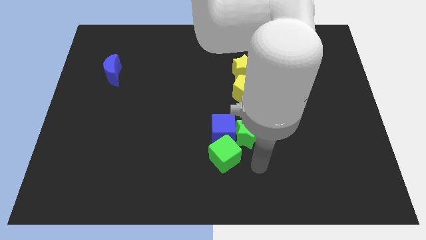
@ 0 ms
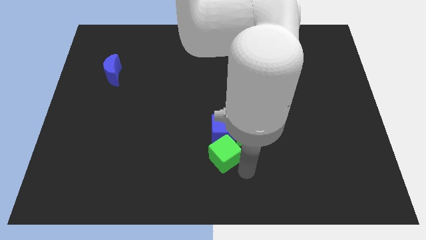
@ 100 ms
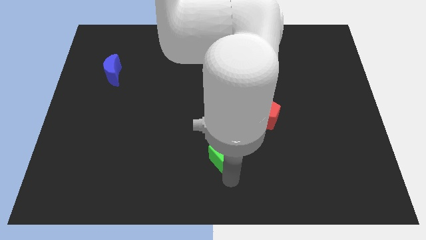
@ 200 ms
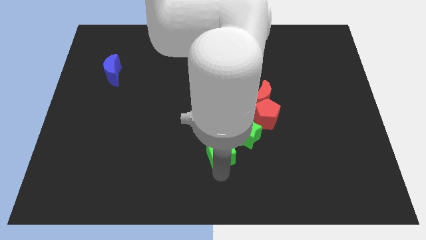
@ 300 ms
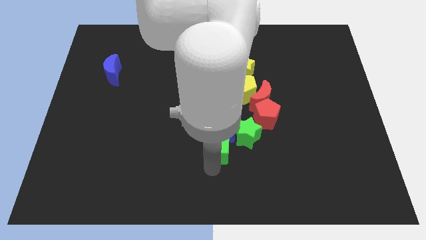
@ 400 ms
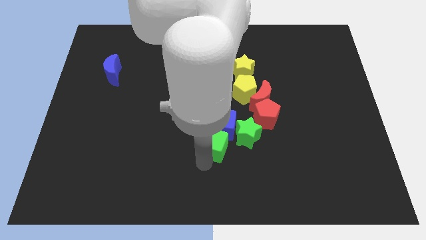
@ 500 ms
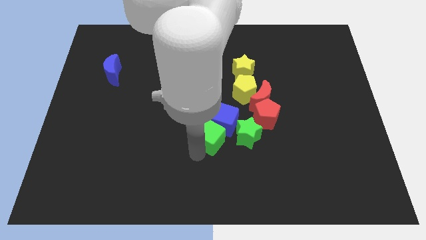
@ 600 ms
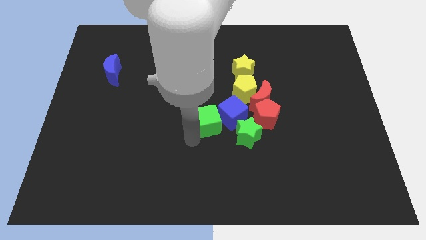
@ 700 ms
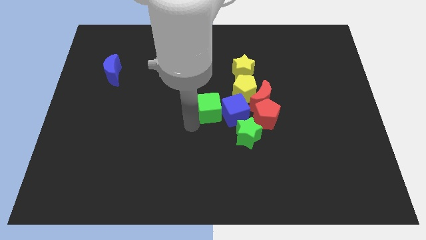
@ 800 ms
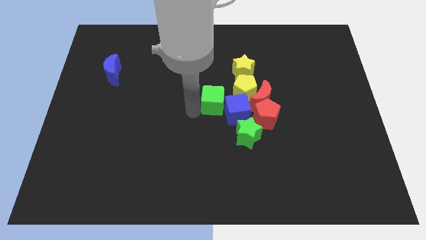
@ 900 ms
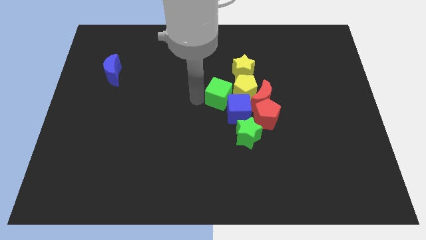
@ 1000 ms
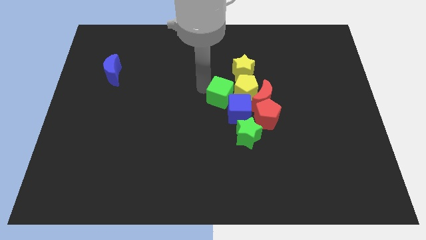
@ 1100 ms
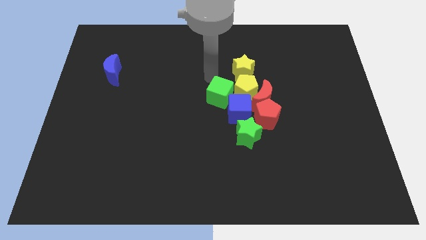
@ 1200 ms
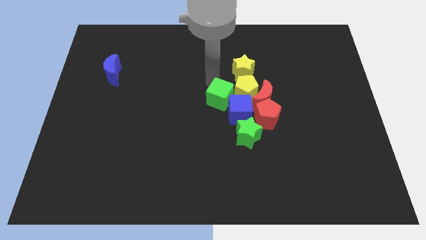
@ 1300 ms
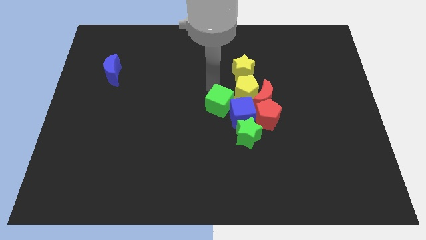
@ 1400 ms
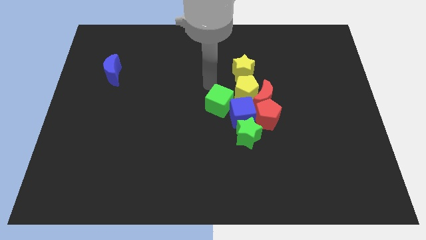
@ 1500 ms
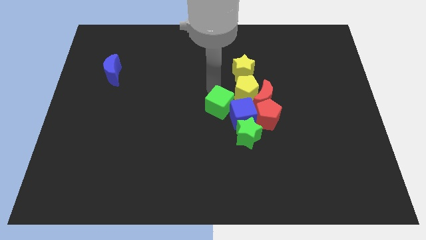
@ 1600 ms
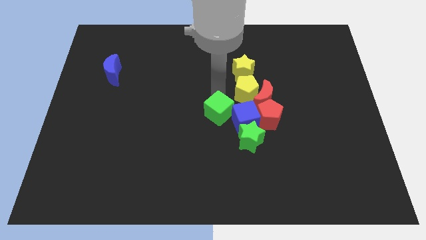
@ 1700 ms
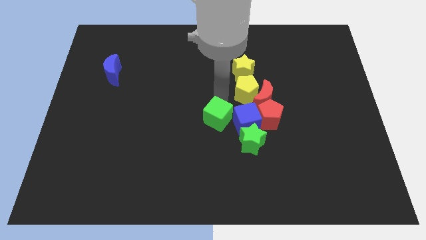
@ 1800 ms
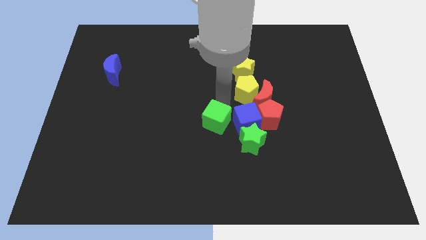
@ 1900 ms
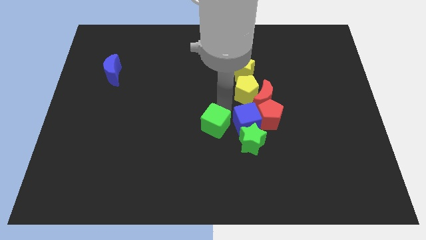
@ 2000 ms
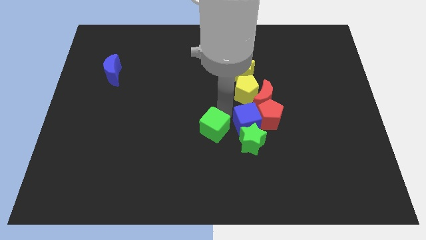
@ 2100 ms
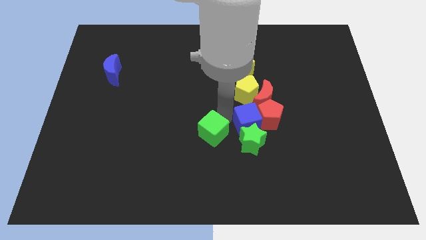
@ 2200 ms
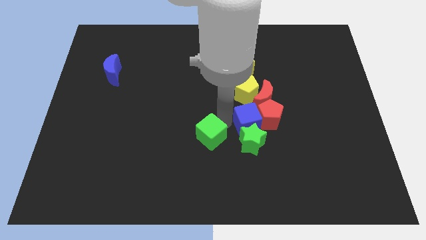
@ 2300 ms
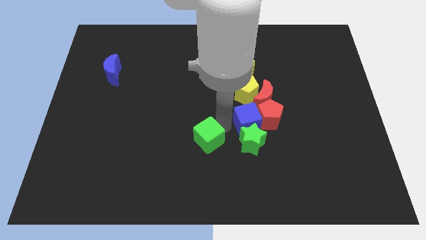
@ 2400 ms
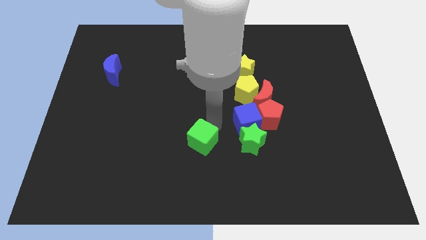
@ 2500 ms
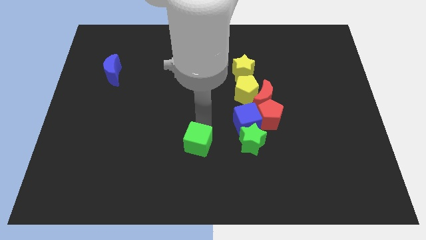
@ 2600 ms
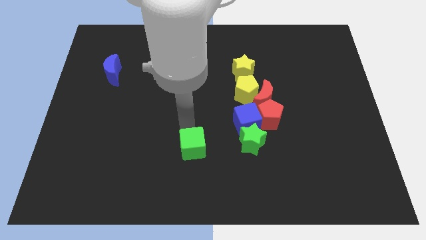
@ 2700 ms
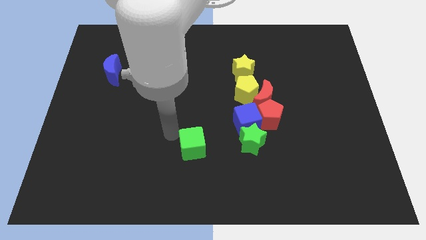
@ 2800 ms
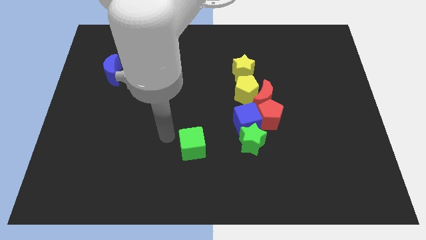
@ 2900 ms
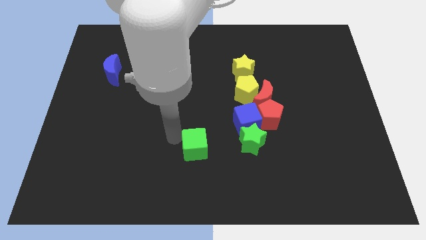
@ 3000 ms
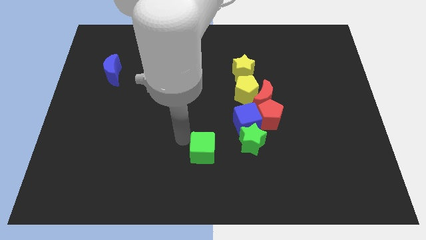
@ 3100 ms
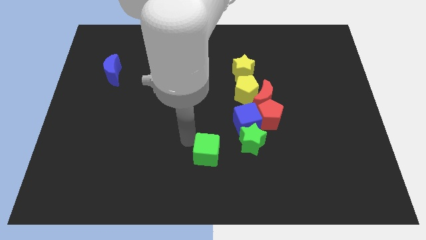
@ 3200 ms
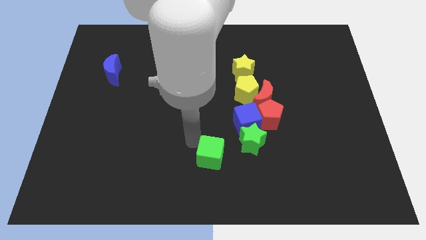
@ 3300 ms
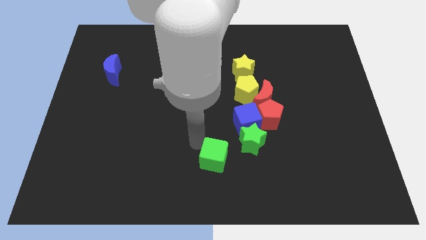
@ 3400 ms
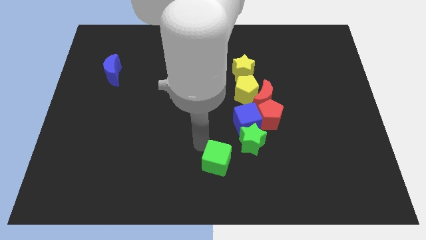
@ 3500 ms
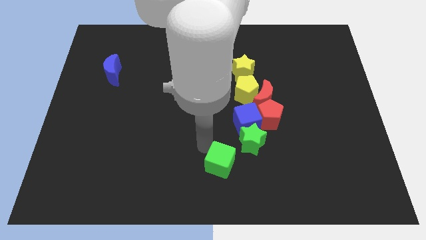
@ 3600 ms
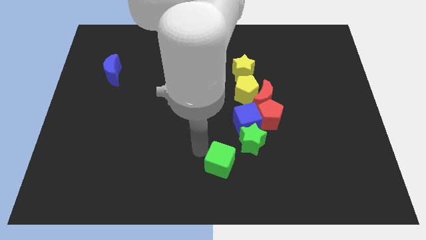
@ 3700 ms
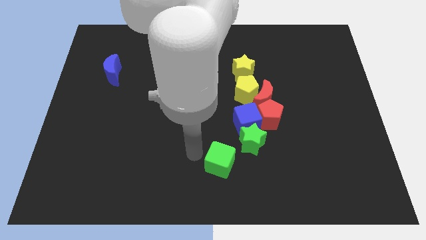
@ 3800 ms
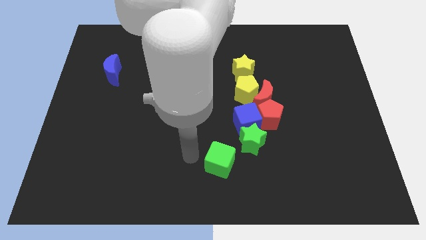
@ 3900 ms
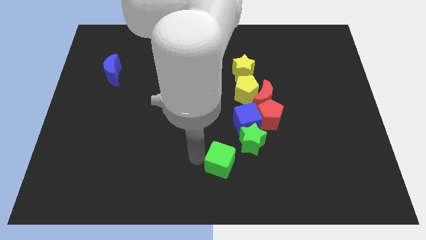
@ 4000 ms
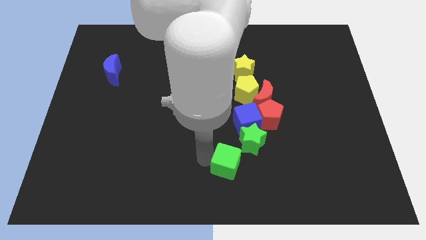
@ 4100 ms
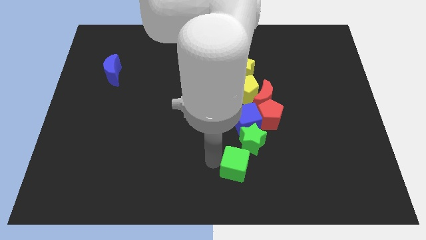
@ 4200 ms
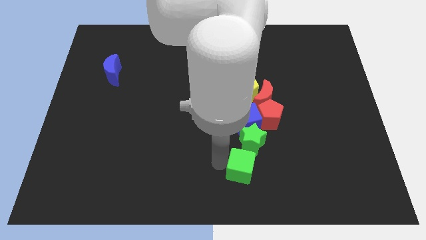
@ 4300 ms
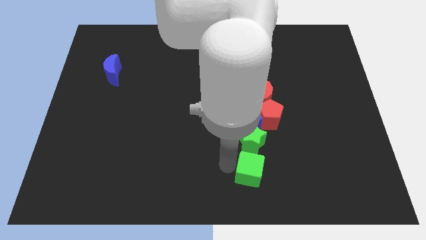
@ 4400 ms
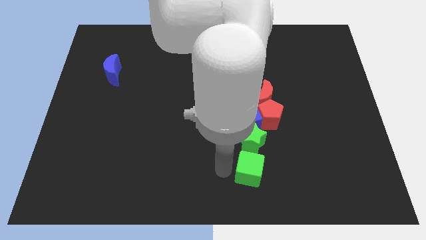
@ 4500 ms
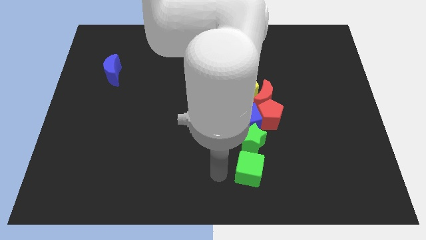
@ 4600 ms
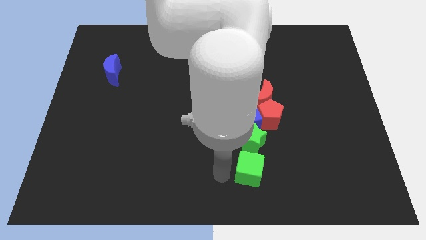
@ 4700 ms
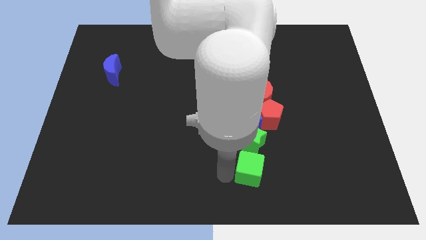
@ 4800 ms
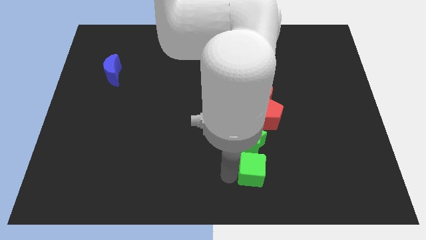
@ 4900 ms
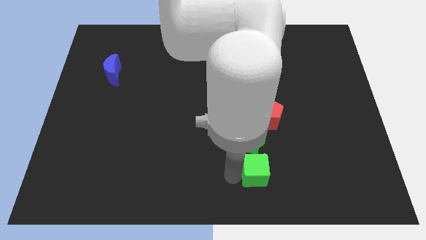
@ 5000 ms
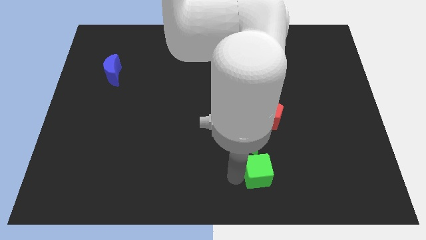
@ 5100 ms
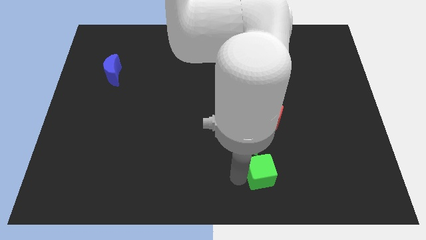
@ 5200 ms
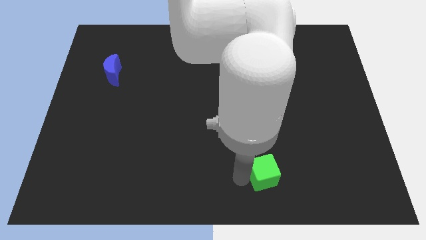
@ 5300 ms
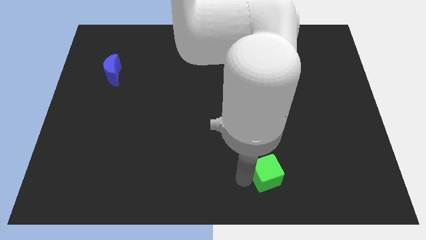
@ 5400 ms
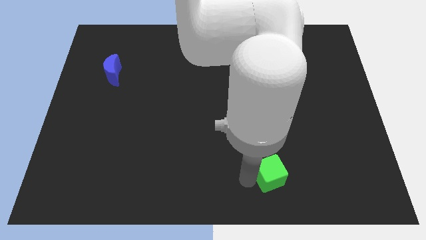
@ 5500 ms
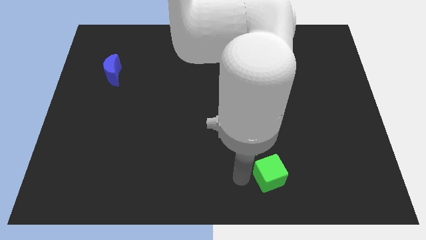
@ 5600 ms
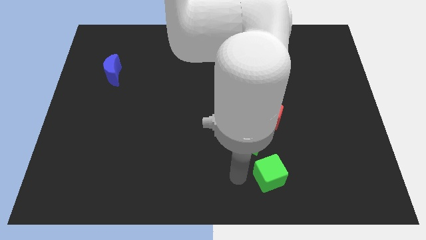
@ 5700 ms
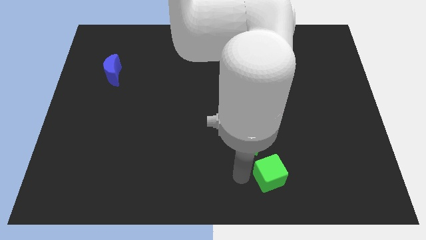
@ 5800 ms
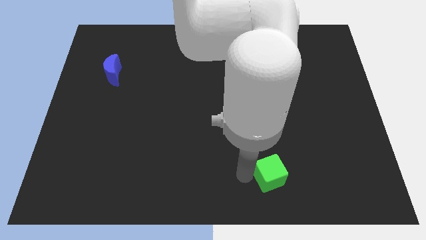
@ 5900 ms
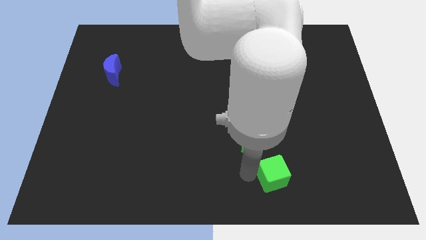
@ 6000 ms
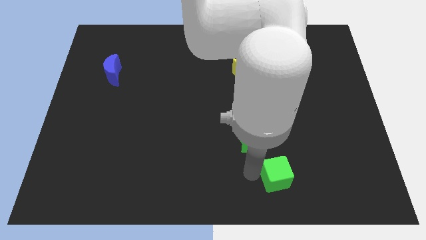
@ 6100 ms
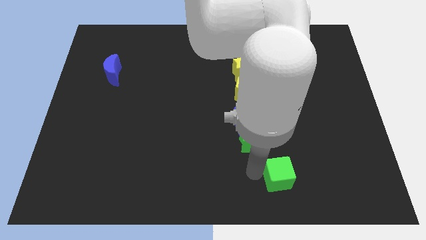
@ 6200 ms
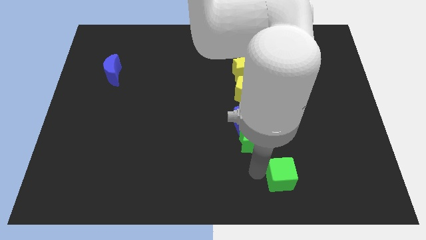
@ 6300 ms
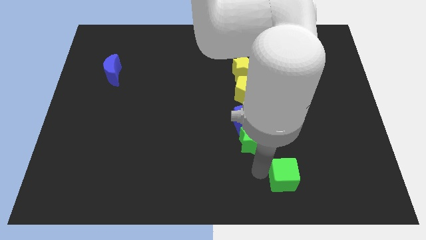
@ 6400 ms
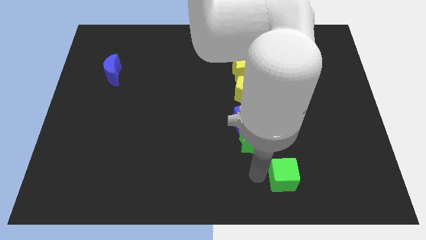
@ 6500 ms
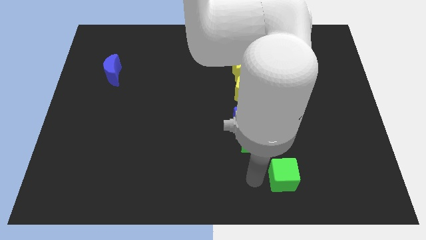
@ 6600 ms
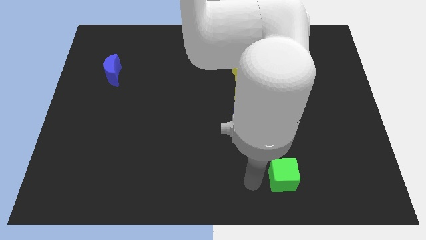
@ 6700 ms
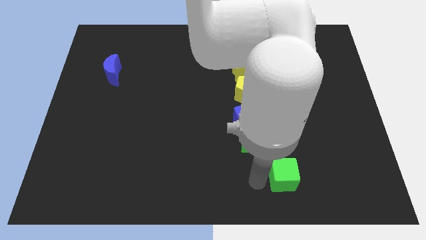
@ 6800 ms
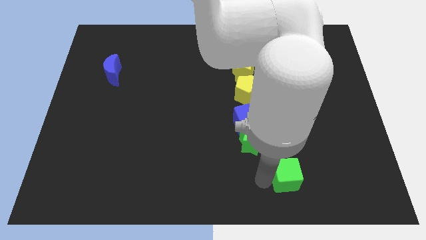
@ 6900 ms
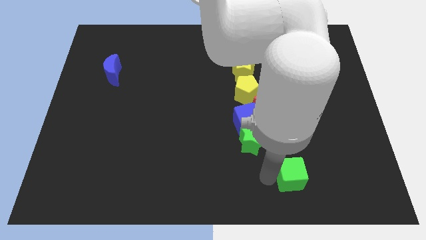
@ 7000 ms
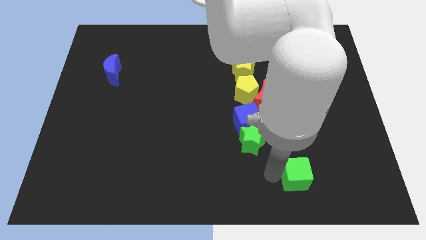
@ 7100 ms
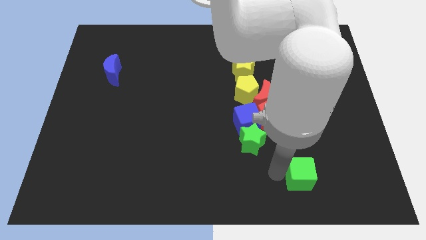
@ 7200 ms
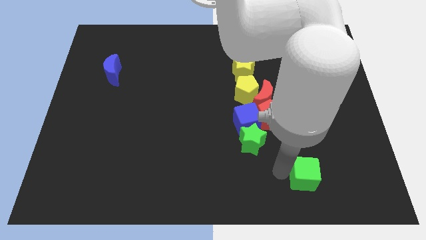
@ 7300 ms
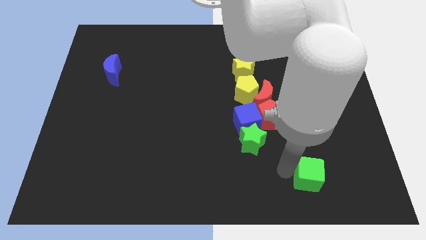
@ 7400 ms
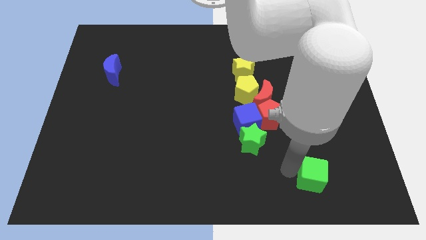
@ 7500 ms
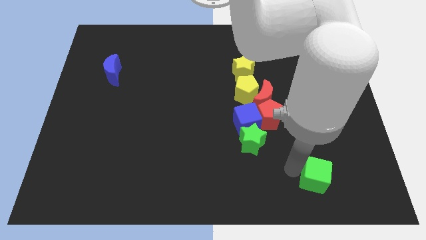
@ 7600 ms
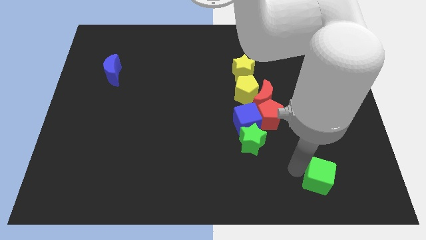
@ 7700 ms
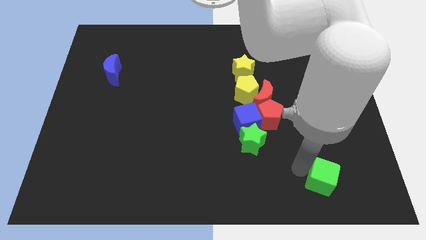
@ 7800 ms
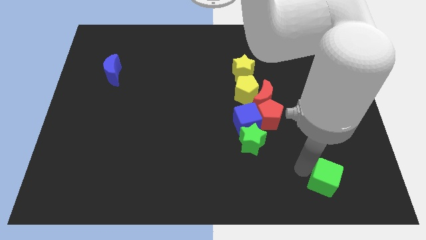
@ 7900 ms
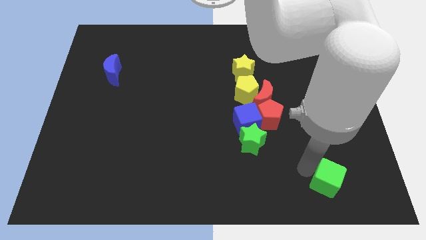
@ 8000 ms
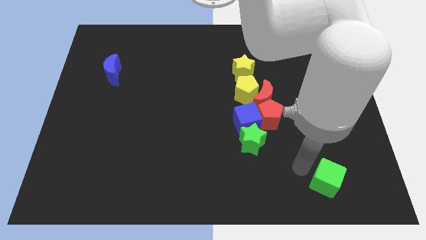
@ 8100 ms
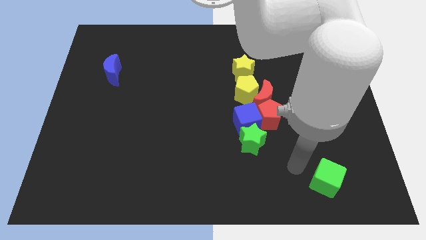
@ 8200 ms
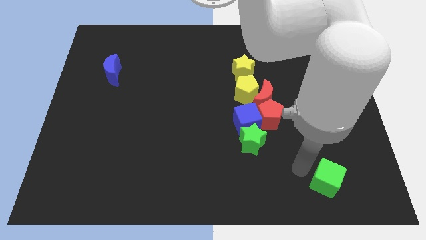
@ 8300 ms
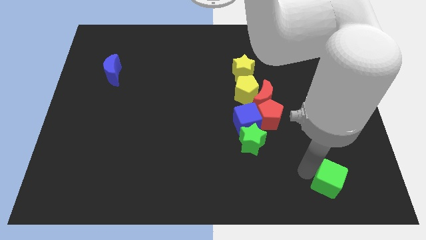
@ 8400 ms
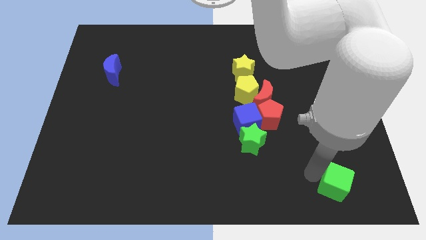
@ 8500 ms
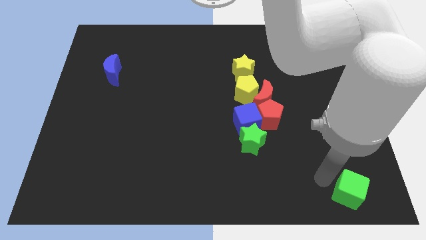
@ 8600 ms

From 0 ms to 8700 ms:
move the green cube to the lower right corner
